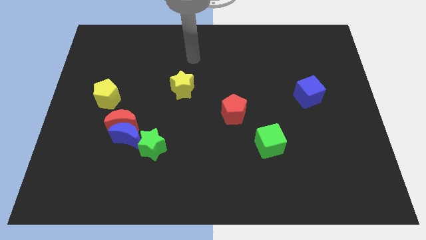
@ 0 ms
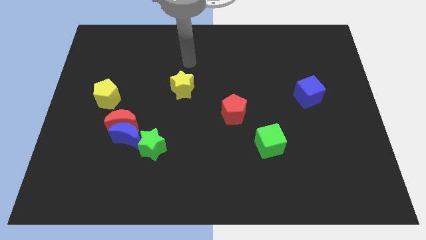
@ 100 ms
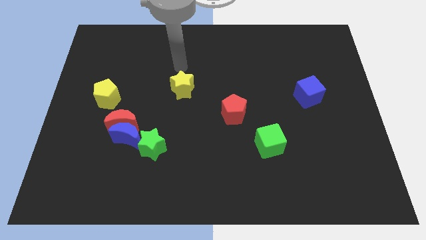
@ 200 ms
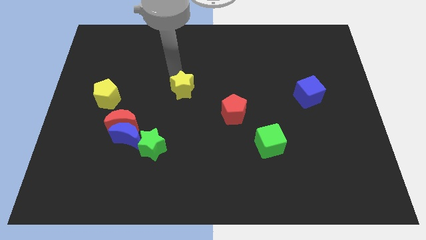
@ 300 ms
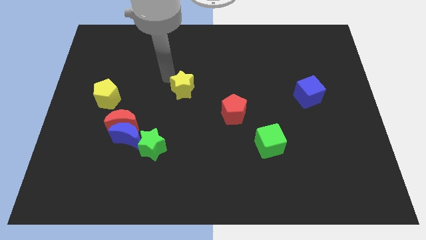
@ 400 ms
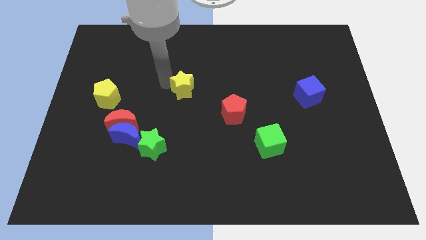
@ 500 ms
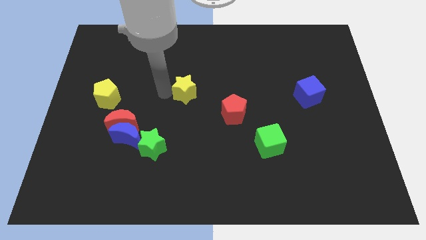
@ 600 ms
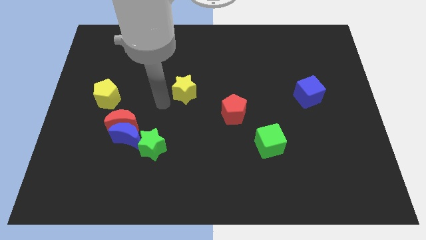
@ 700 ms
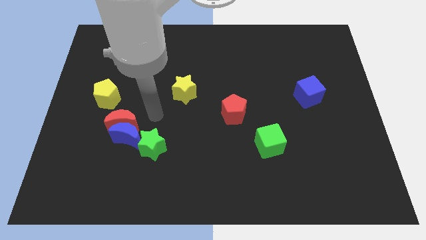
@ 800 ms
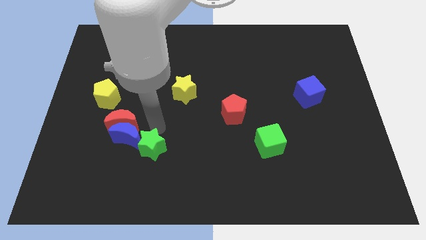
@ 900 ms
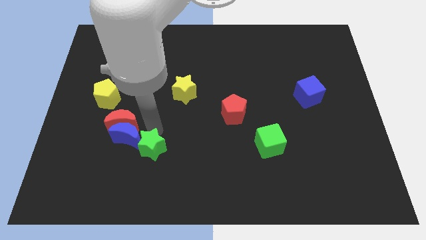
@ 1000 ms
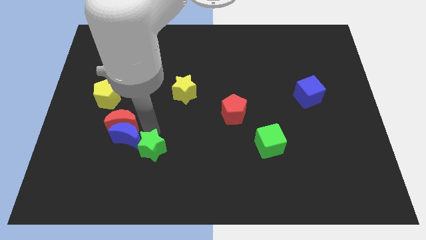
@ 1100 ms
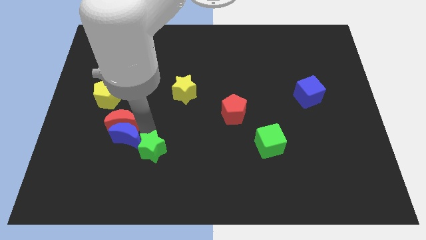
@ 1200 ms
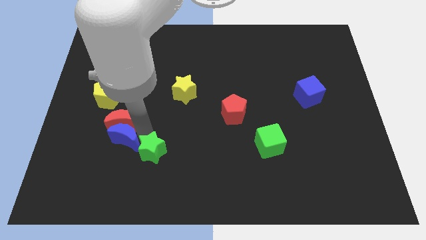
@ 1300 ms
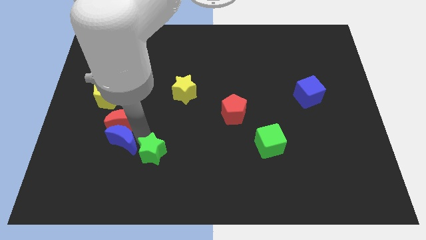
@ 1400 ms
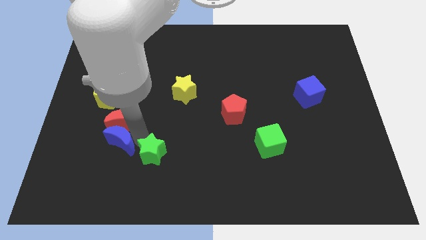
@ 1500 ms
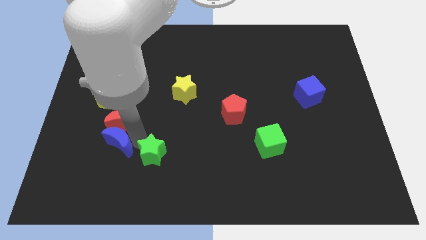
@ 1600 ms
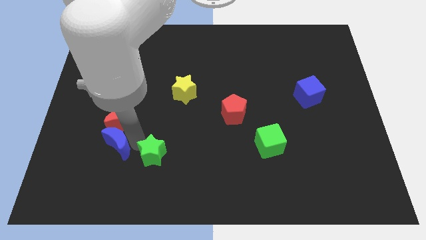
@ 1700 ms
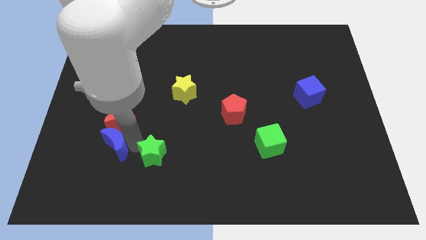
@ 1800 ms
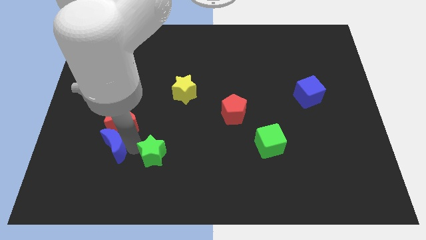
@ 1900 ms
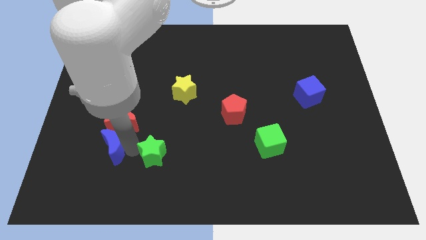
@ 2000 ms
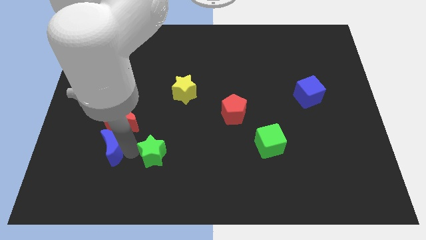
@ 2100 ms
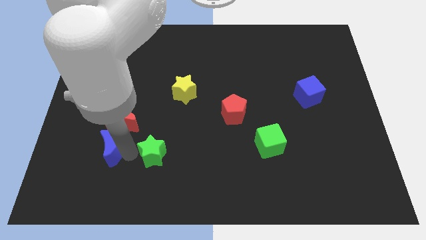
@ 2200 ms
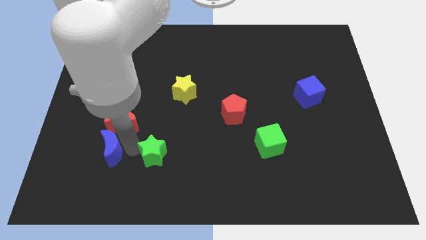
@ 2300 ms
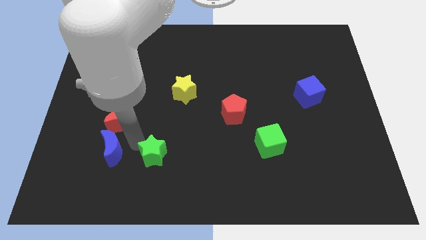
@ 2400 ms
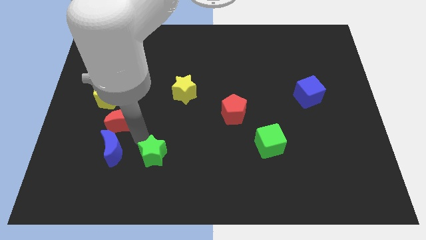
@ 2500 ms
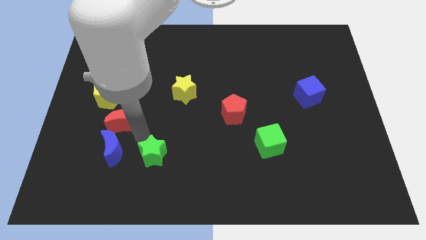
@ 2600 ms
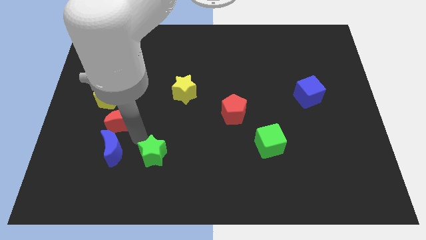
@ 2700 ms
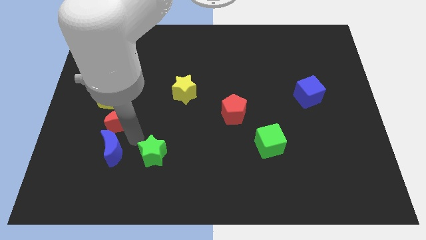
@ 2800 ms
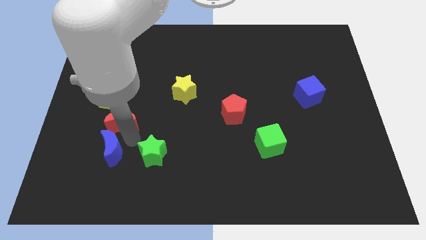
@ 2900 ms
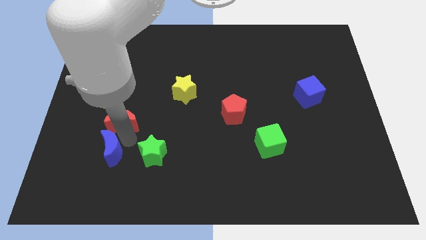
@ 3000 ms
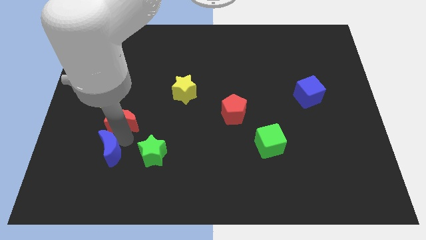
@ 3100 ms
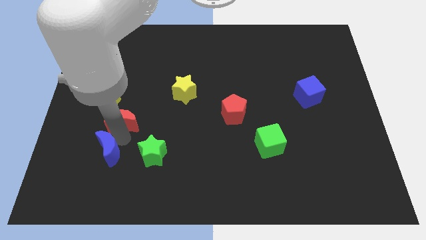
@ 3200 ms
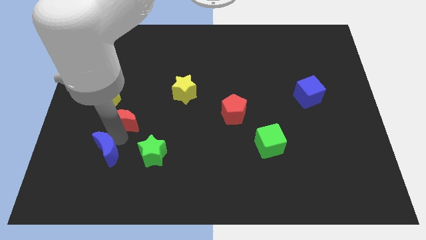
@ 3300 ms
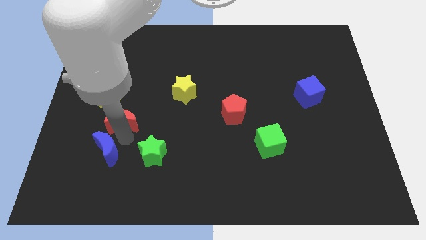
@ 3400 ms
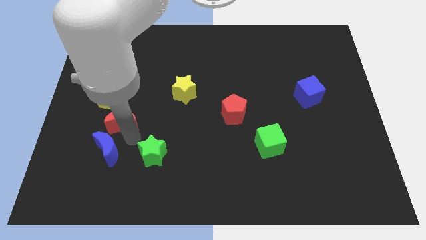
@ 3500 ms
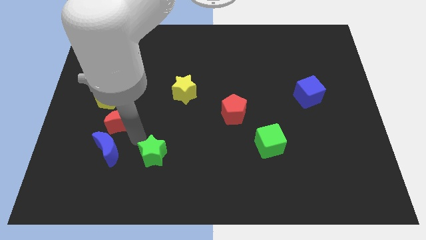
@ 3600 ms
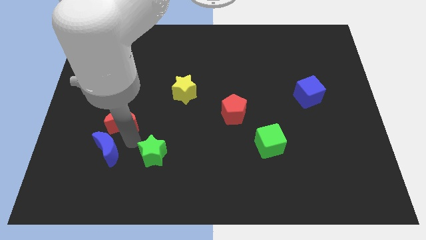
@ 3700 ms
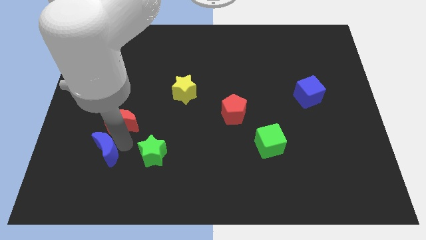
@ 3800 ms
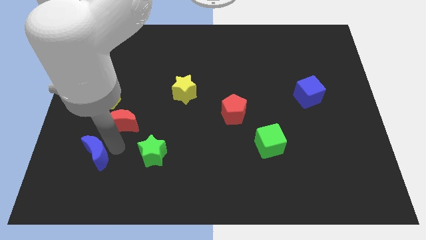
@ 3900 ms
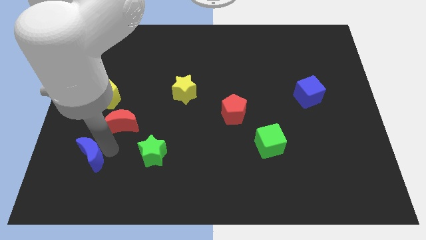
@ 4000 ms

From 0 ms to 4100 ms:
pull the blue moon apart from the red moon and green star

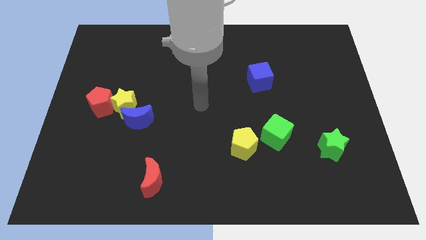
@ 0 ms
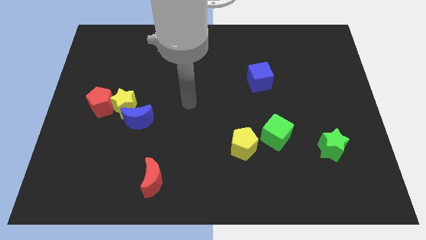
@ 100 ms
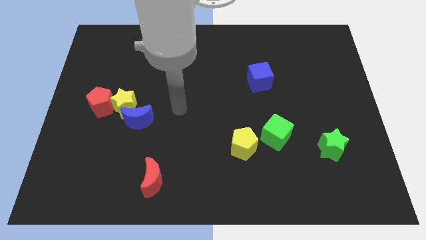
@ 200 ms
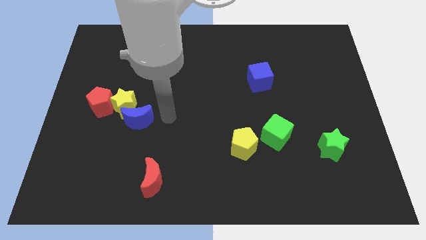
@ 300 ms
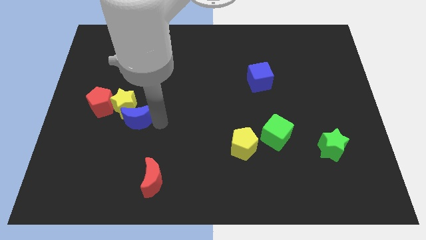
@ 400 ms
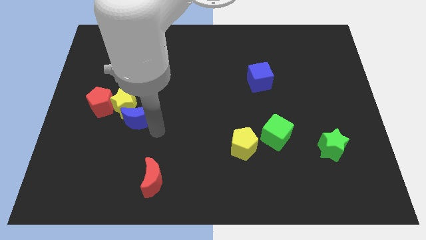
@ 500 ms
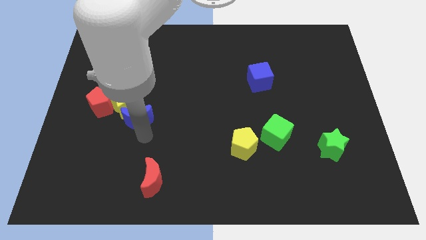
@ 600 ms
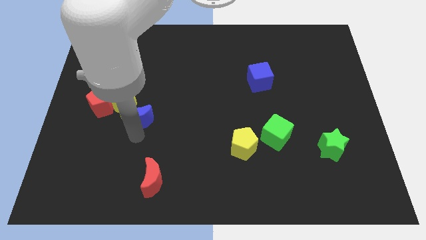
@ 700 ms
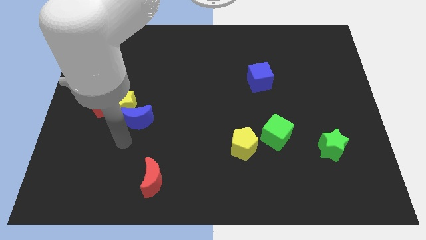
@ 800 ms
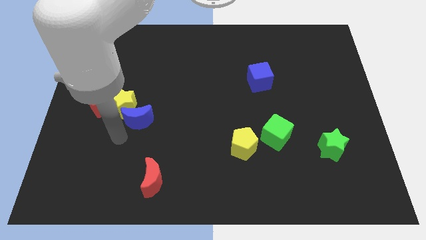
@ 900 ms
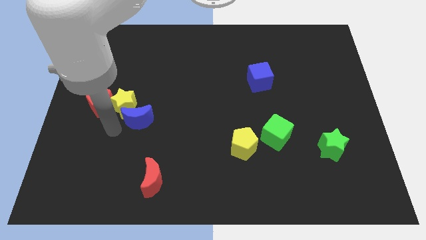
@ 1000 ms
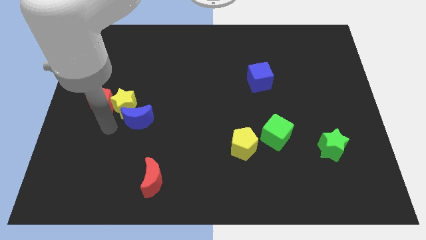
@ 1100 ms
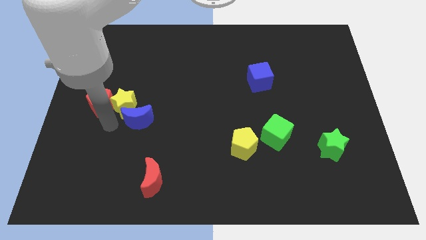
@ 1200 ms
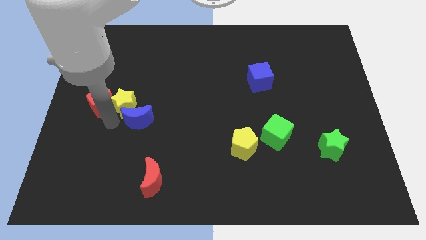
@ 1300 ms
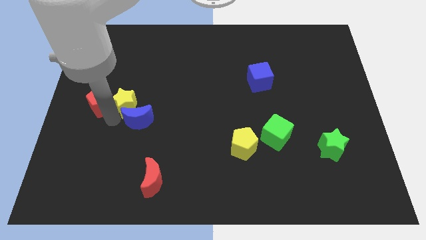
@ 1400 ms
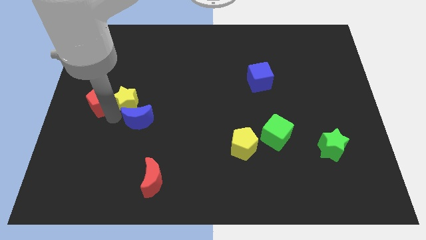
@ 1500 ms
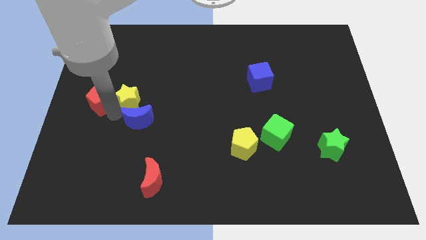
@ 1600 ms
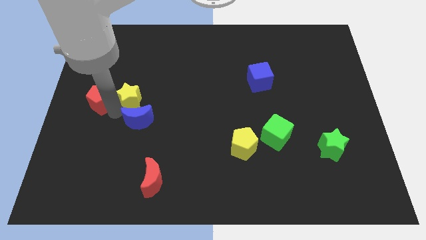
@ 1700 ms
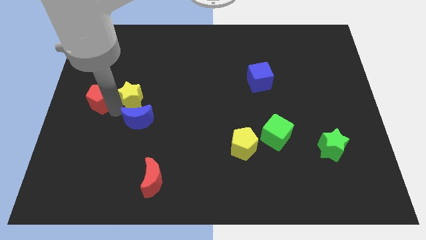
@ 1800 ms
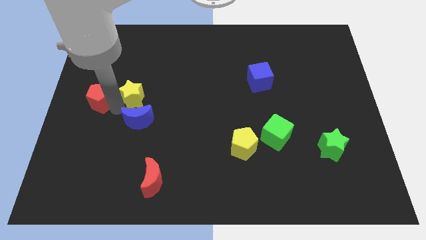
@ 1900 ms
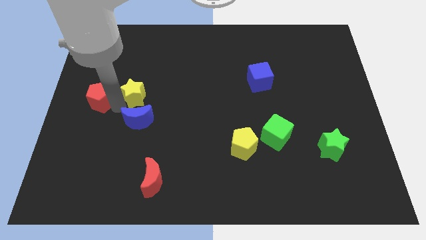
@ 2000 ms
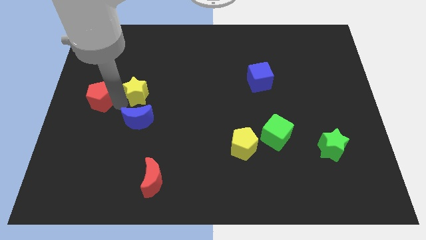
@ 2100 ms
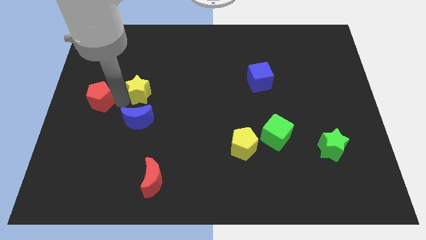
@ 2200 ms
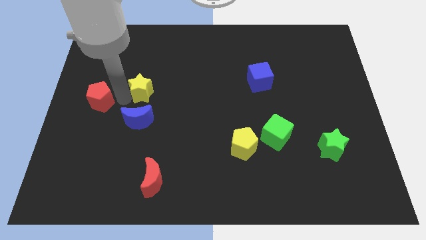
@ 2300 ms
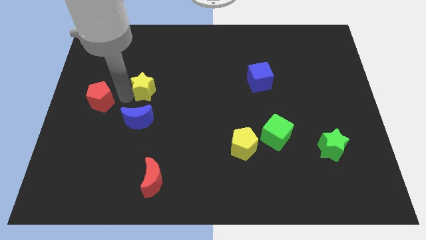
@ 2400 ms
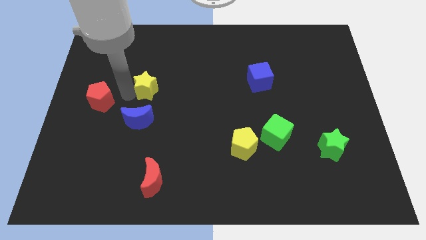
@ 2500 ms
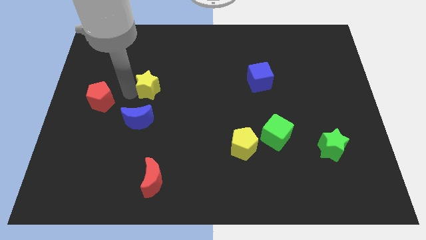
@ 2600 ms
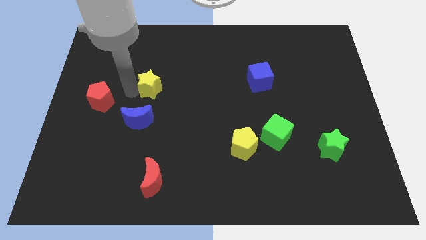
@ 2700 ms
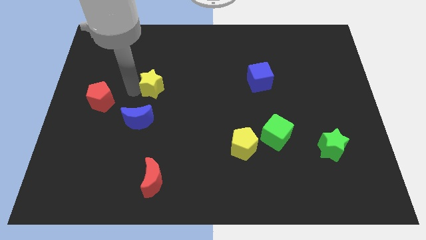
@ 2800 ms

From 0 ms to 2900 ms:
move the yellow star away from the red pentagon and blue moon

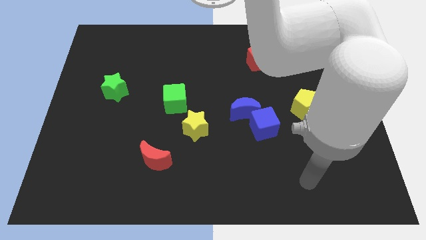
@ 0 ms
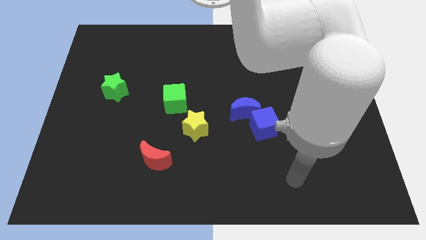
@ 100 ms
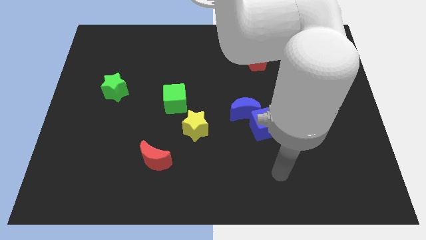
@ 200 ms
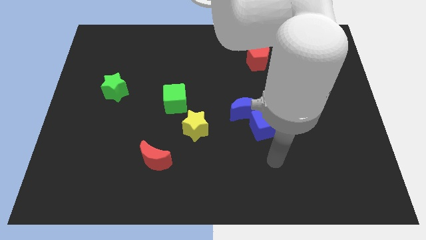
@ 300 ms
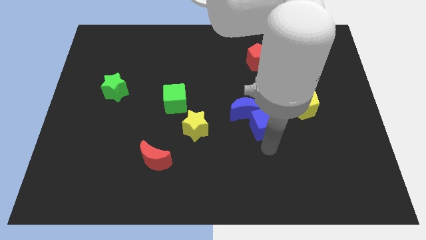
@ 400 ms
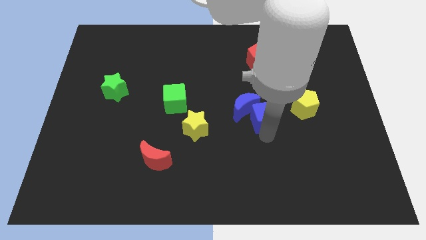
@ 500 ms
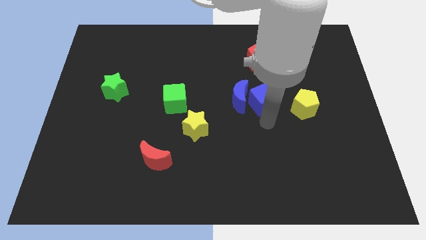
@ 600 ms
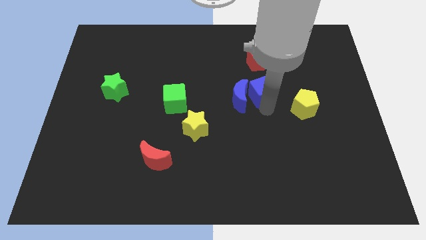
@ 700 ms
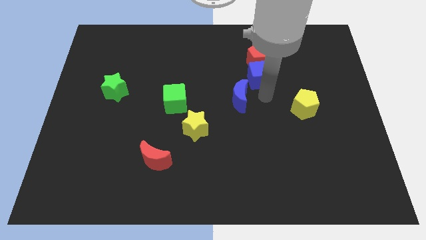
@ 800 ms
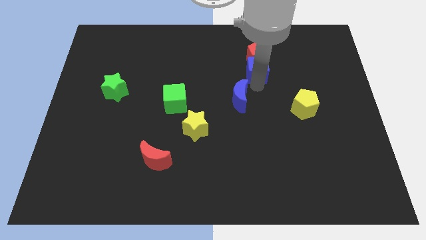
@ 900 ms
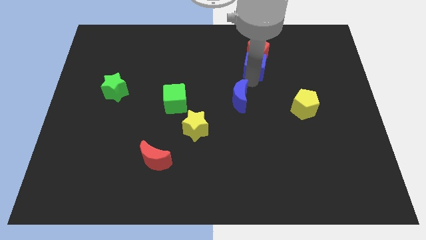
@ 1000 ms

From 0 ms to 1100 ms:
separate the blue moon from the blue cube

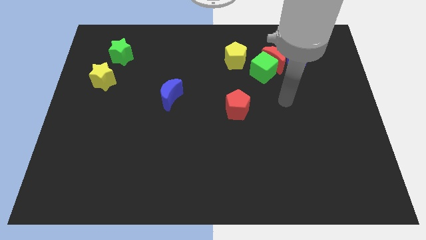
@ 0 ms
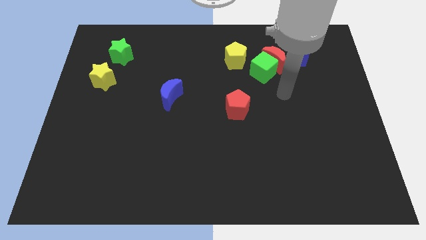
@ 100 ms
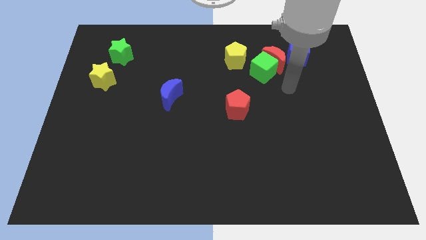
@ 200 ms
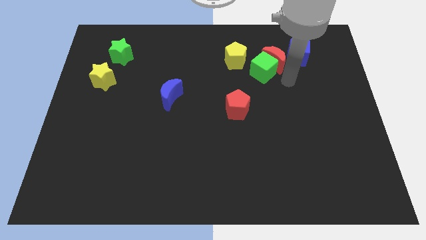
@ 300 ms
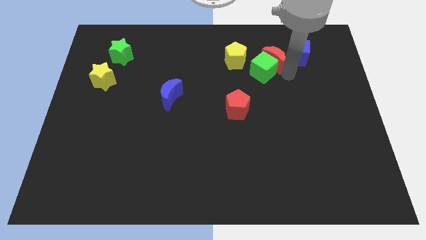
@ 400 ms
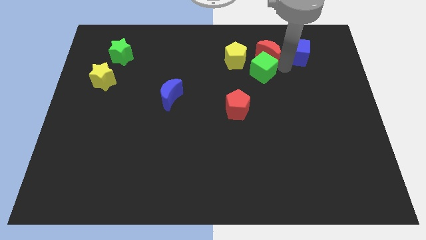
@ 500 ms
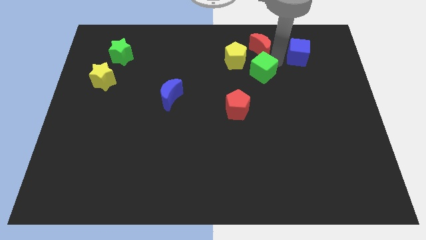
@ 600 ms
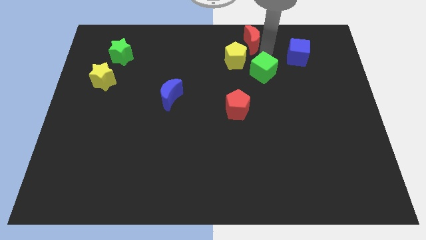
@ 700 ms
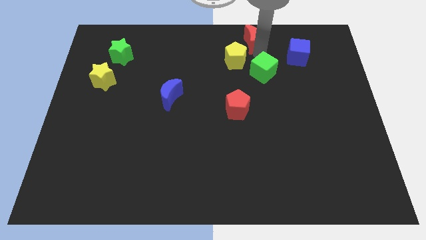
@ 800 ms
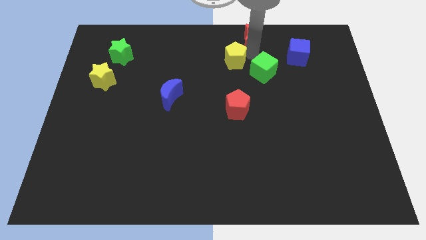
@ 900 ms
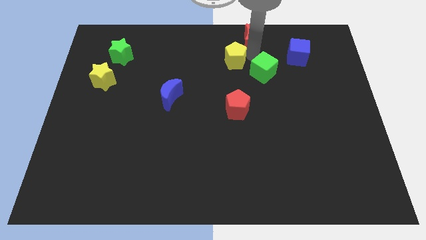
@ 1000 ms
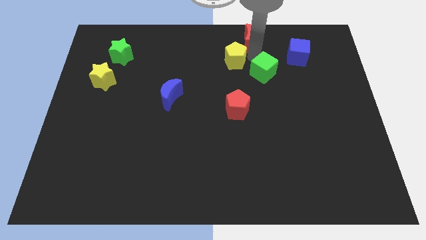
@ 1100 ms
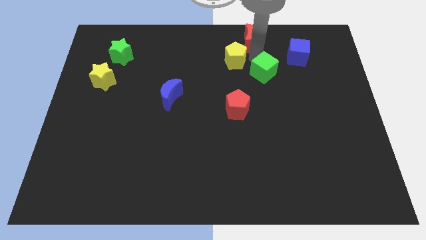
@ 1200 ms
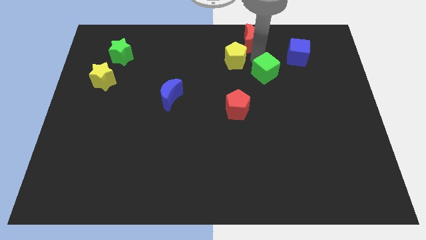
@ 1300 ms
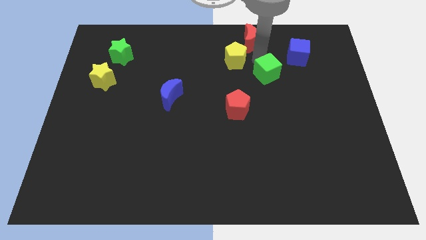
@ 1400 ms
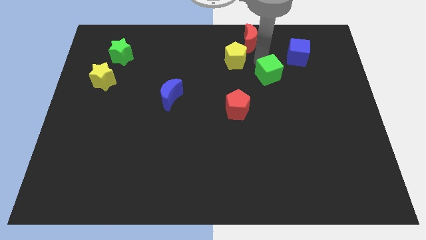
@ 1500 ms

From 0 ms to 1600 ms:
move the green cube away from the red moon and yellow pentagon
